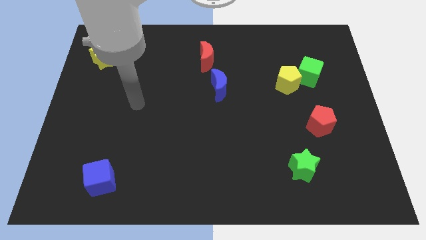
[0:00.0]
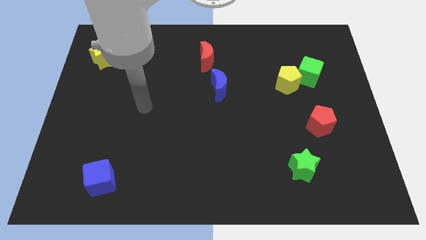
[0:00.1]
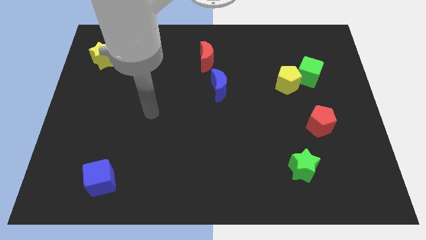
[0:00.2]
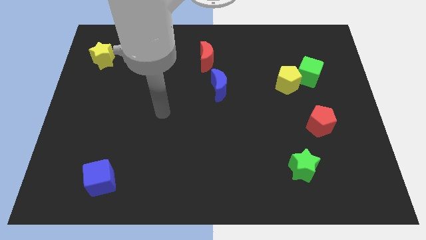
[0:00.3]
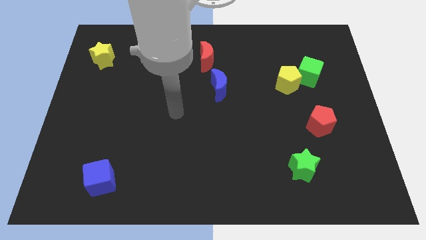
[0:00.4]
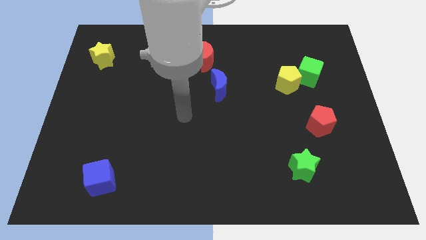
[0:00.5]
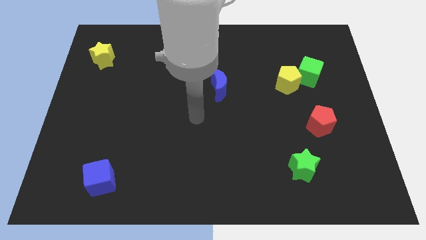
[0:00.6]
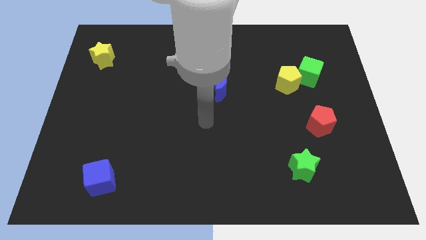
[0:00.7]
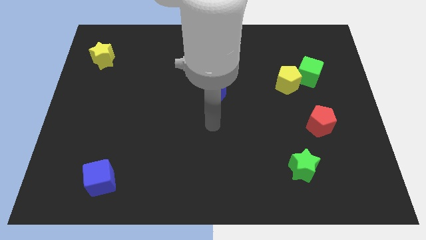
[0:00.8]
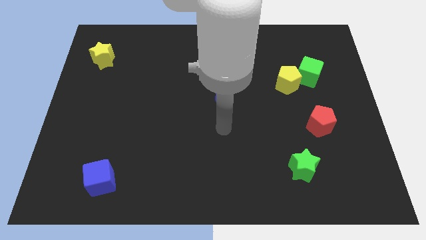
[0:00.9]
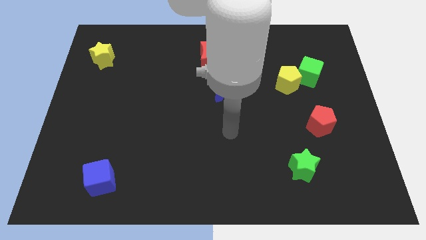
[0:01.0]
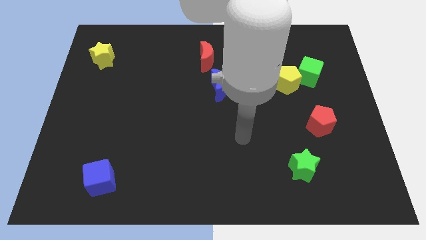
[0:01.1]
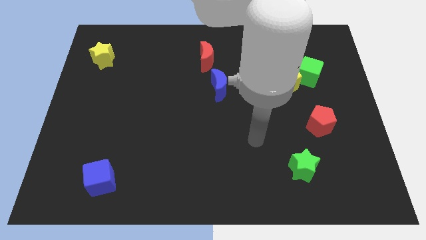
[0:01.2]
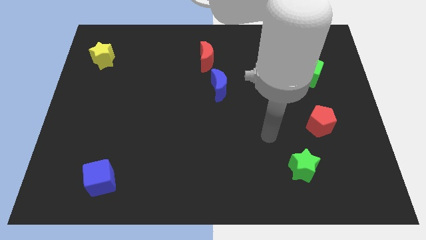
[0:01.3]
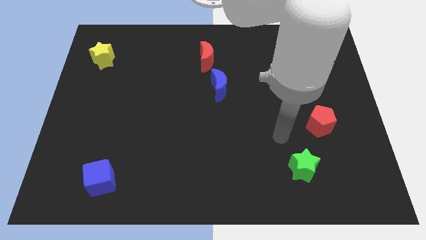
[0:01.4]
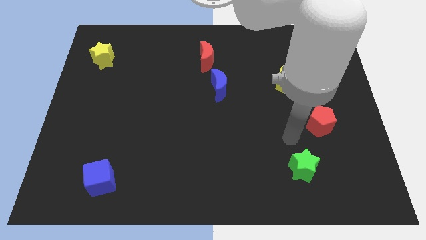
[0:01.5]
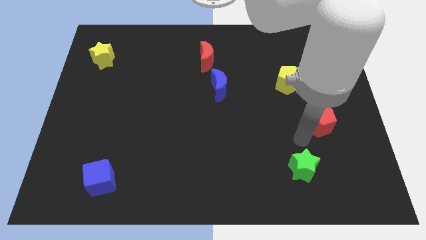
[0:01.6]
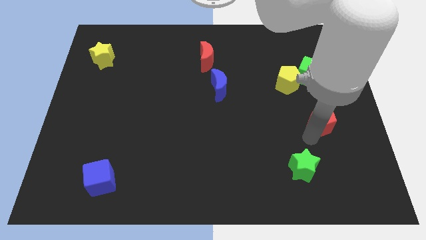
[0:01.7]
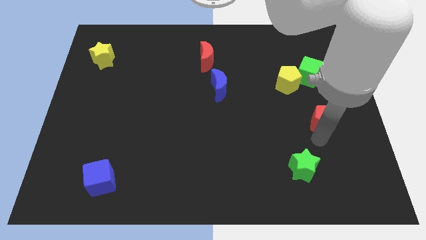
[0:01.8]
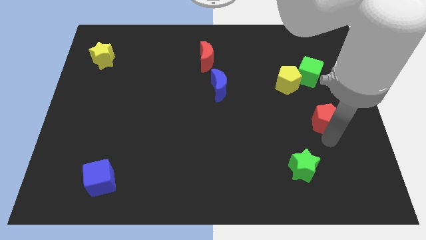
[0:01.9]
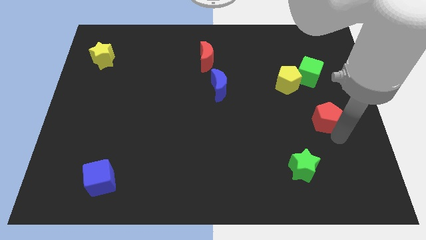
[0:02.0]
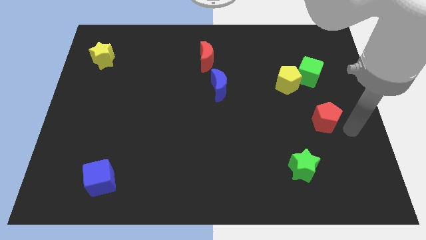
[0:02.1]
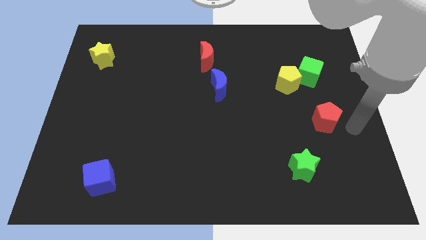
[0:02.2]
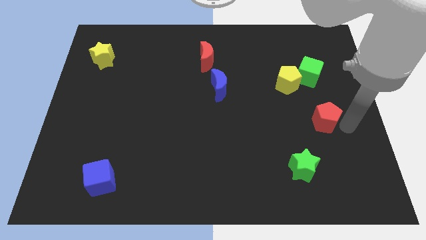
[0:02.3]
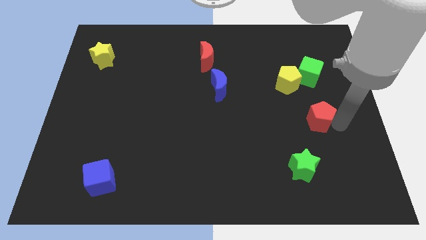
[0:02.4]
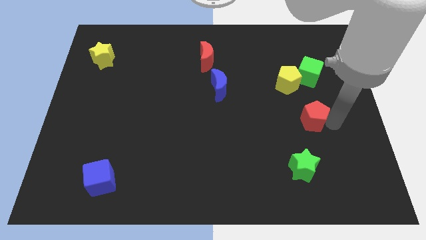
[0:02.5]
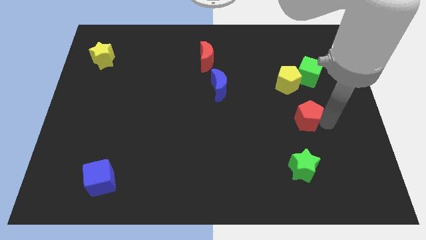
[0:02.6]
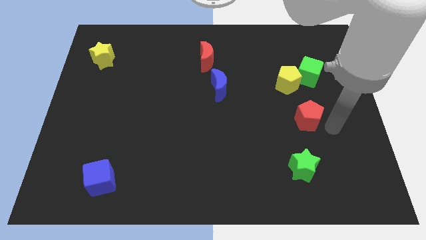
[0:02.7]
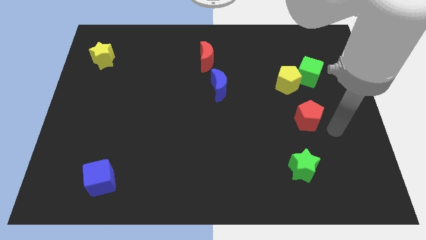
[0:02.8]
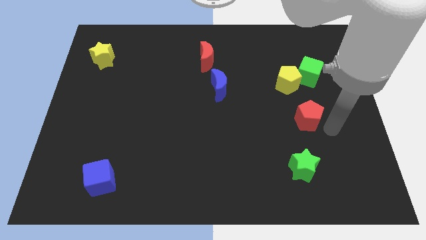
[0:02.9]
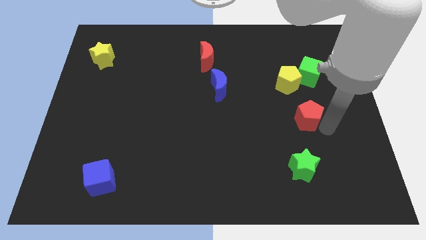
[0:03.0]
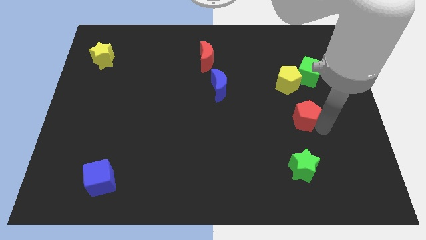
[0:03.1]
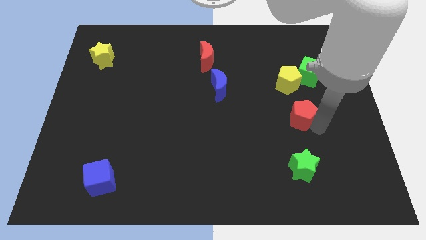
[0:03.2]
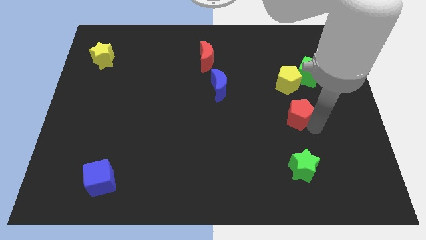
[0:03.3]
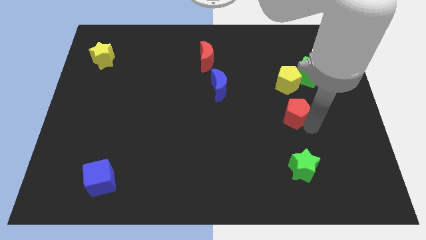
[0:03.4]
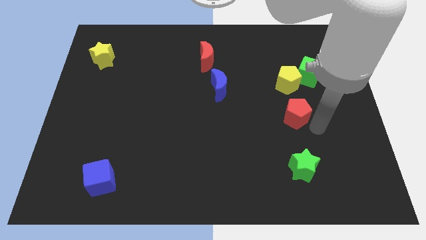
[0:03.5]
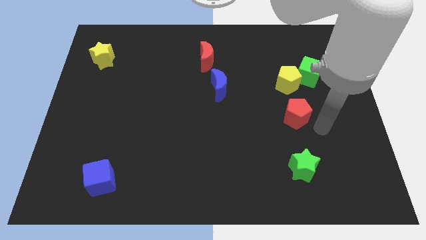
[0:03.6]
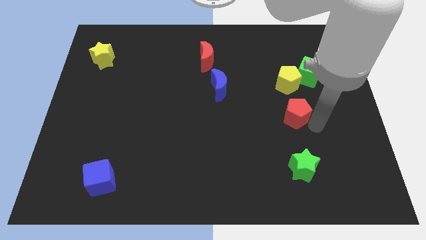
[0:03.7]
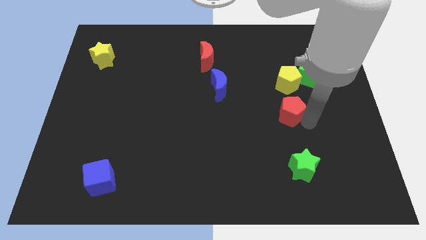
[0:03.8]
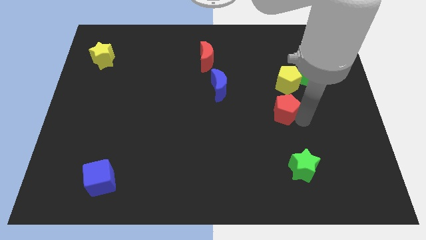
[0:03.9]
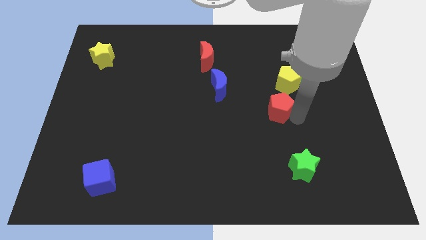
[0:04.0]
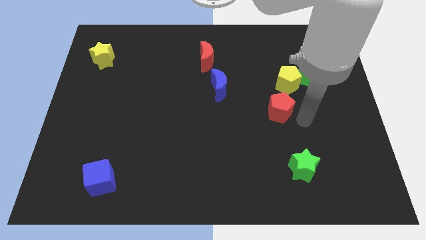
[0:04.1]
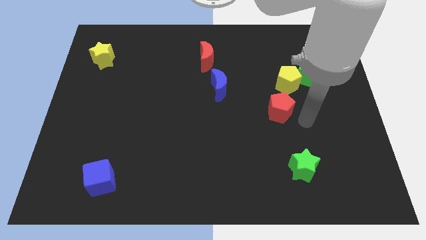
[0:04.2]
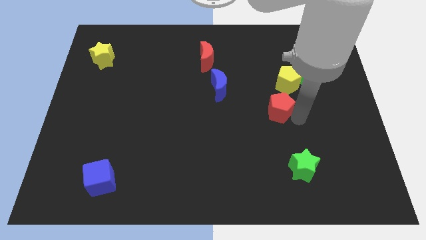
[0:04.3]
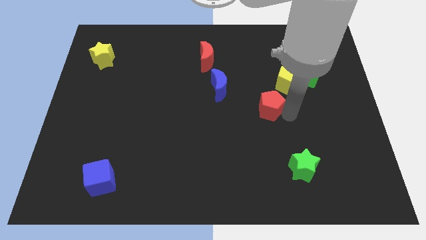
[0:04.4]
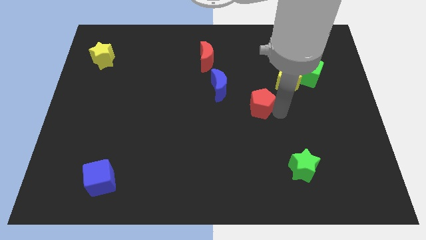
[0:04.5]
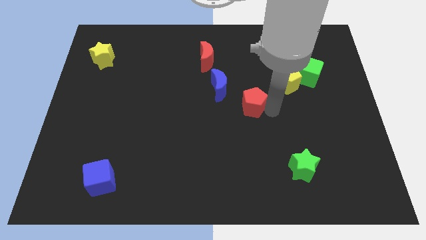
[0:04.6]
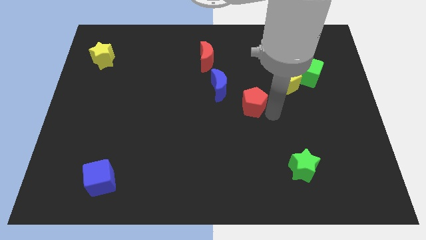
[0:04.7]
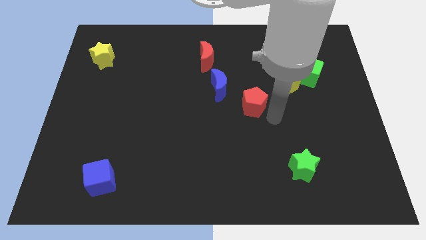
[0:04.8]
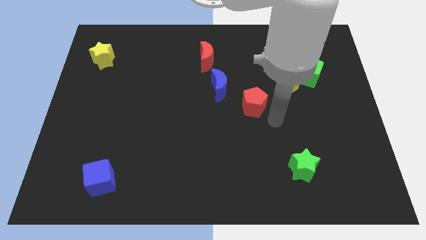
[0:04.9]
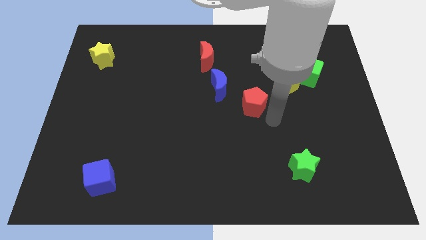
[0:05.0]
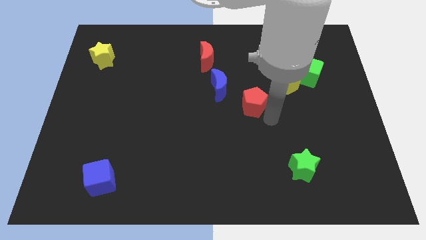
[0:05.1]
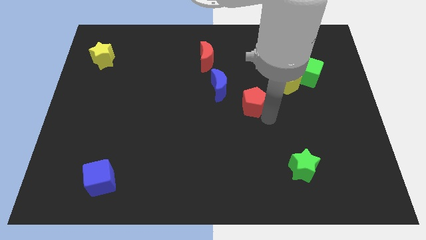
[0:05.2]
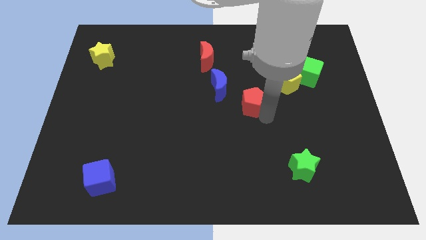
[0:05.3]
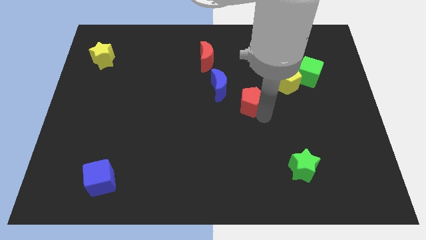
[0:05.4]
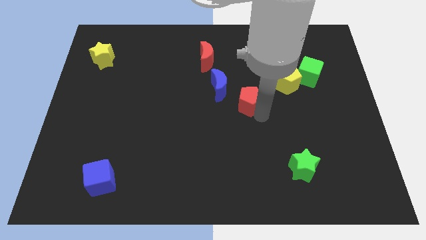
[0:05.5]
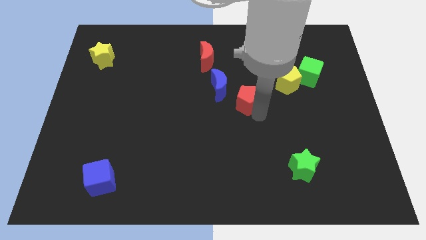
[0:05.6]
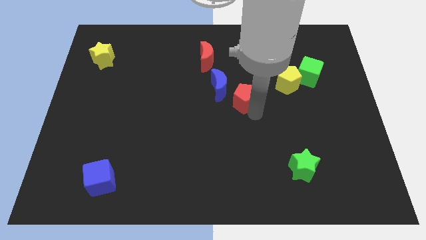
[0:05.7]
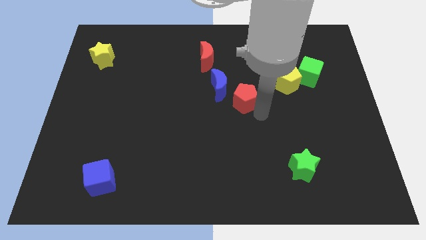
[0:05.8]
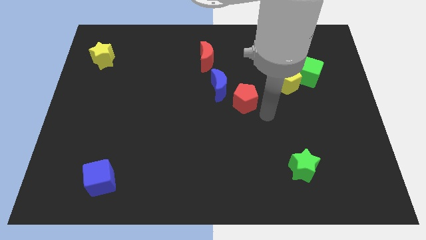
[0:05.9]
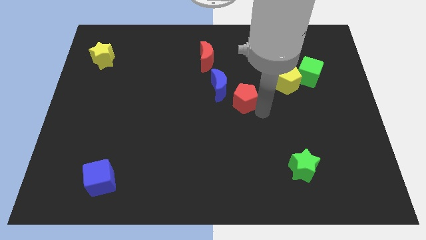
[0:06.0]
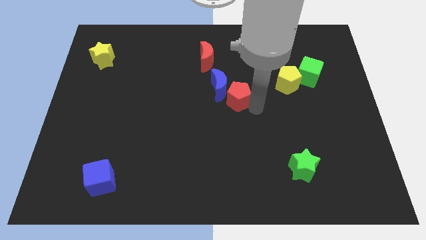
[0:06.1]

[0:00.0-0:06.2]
slide the red pentagon close to the blue moon

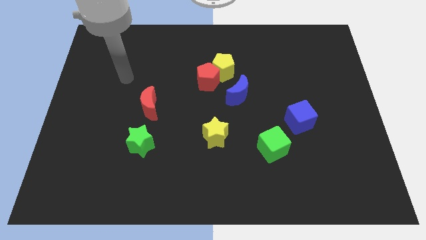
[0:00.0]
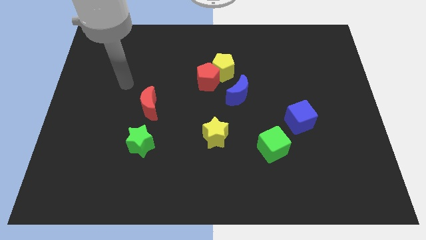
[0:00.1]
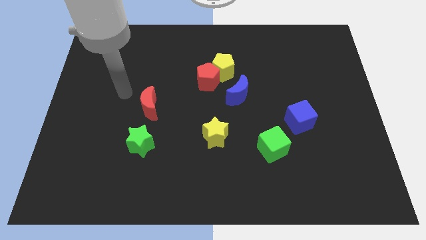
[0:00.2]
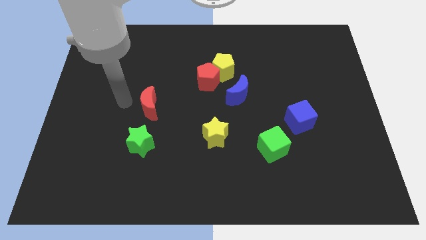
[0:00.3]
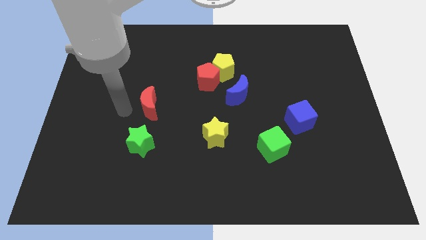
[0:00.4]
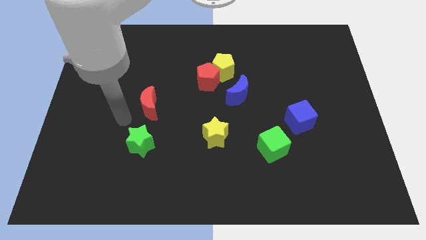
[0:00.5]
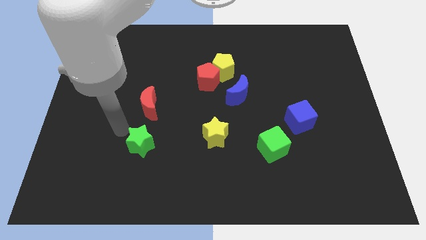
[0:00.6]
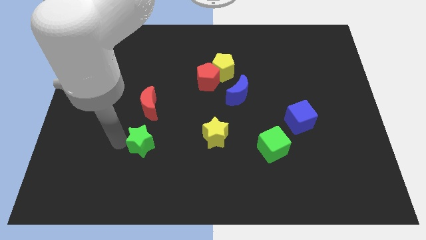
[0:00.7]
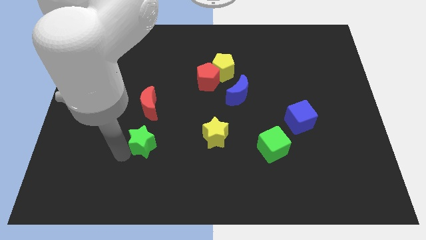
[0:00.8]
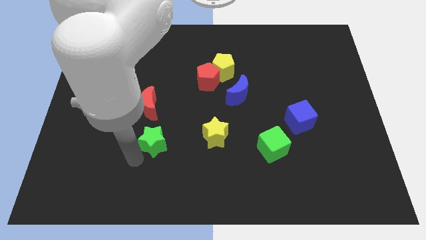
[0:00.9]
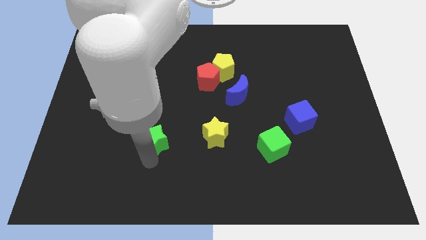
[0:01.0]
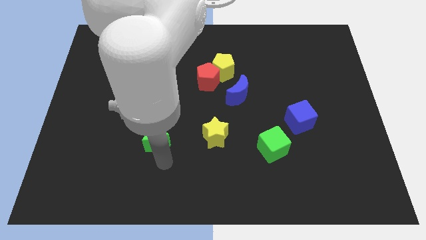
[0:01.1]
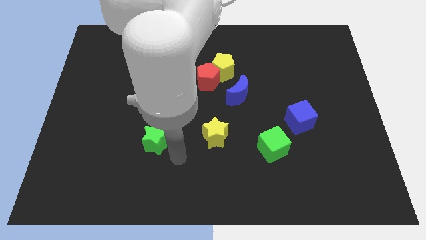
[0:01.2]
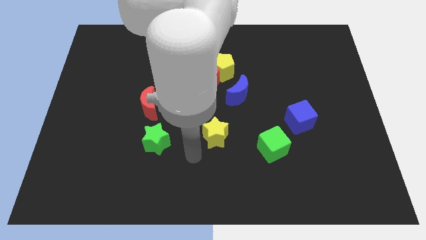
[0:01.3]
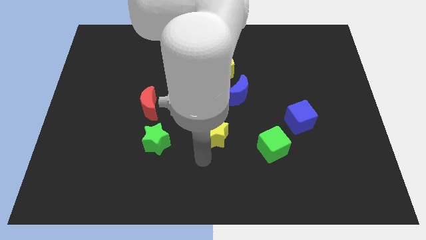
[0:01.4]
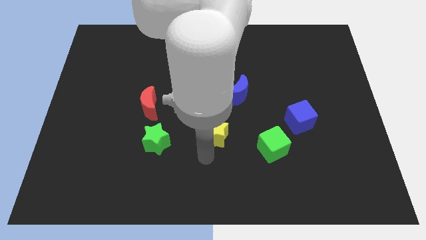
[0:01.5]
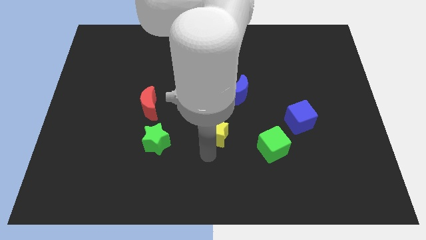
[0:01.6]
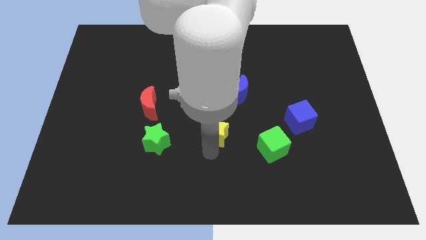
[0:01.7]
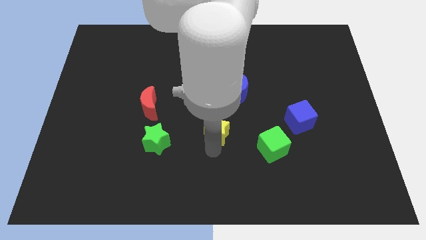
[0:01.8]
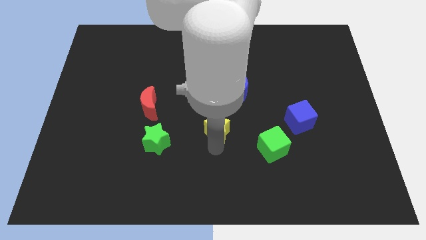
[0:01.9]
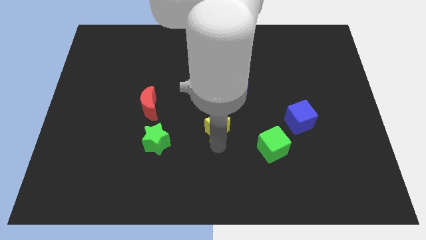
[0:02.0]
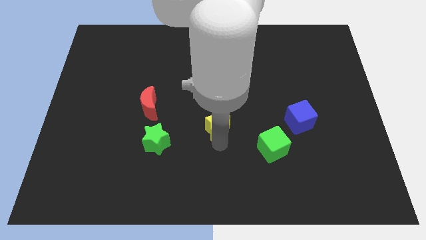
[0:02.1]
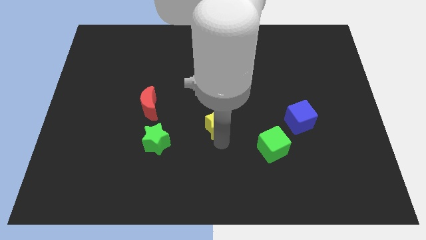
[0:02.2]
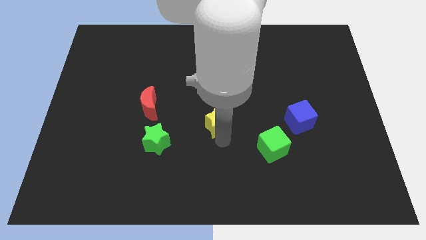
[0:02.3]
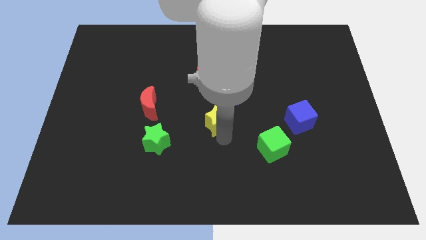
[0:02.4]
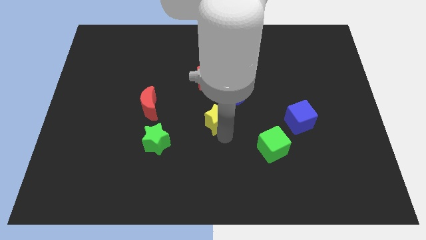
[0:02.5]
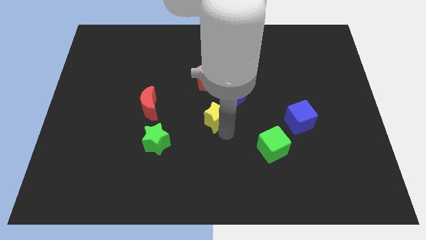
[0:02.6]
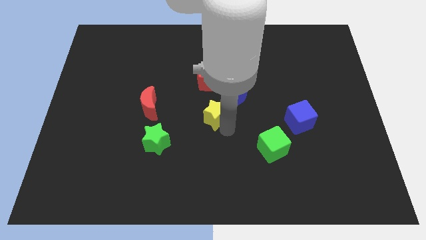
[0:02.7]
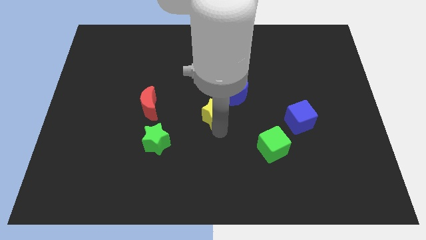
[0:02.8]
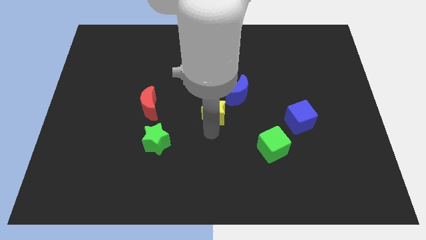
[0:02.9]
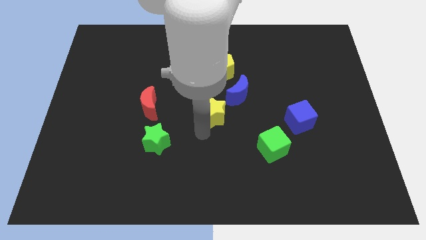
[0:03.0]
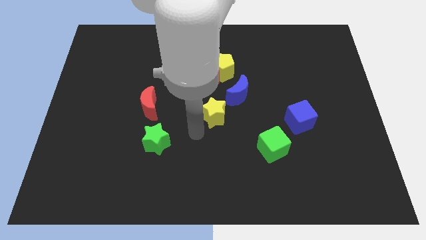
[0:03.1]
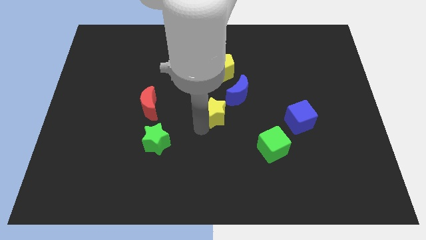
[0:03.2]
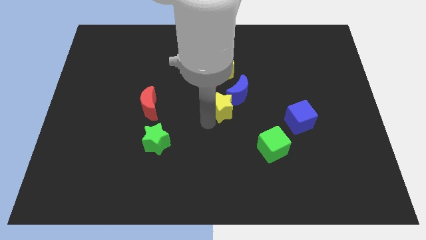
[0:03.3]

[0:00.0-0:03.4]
move the yellow star next to the blue moon
